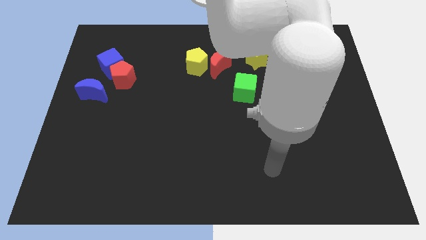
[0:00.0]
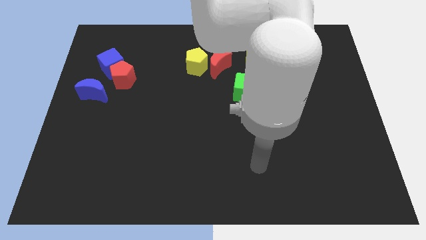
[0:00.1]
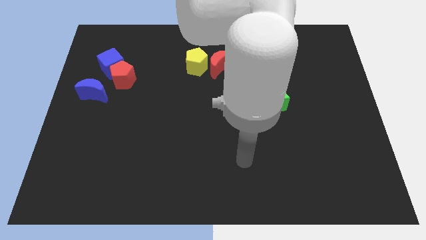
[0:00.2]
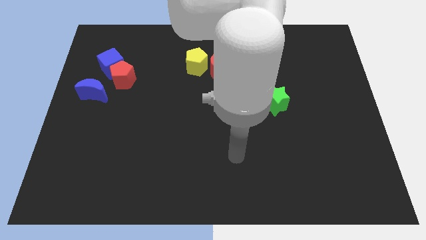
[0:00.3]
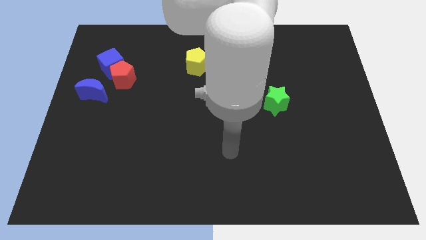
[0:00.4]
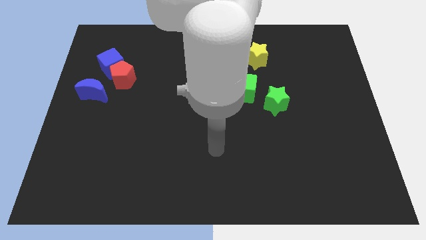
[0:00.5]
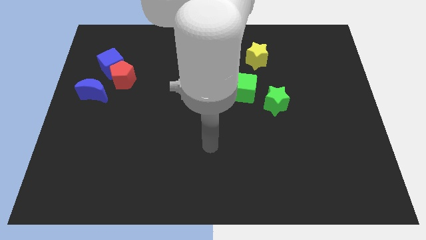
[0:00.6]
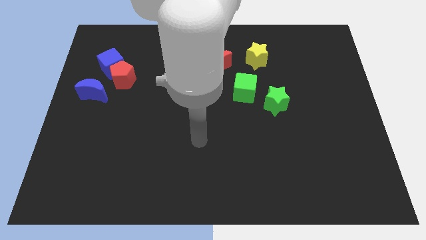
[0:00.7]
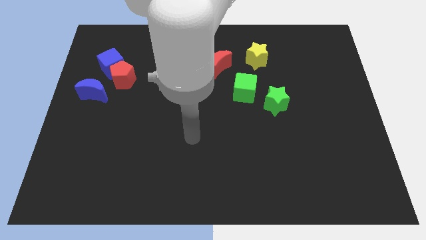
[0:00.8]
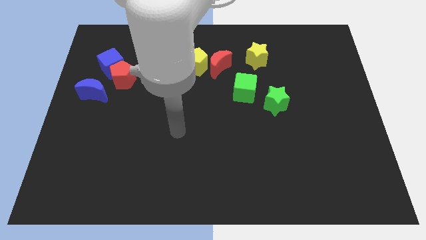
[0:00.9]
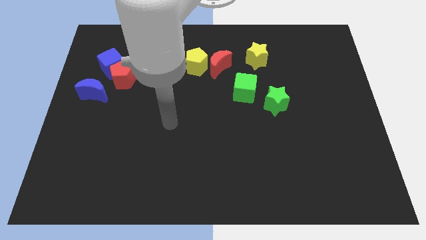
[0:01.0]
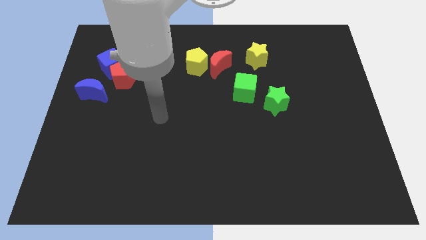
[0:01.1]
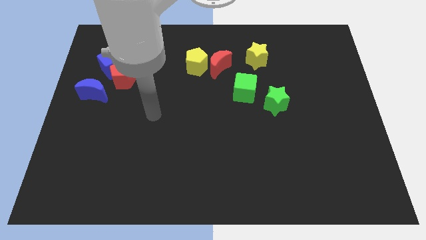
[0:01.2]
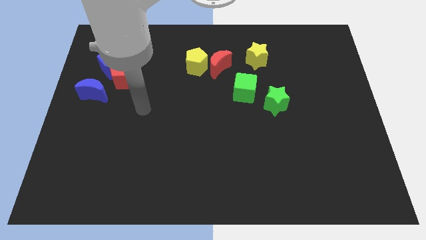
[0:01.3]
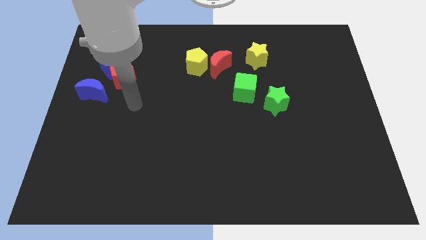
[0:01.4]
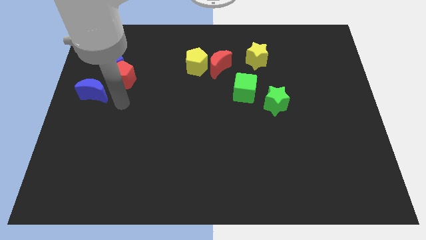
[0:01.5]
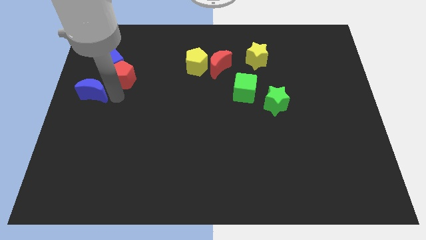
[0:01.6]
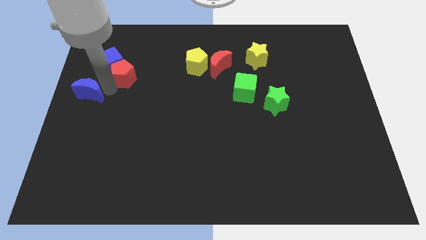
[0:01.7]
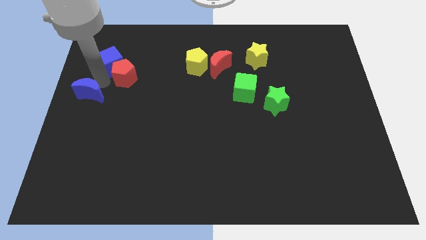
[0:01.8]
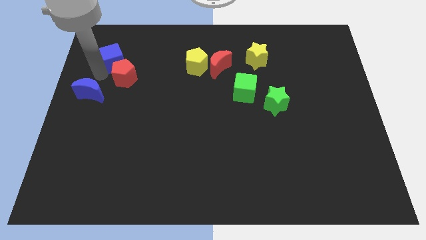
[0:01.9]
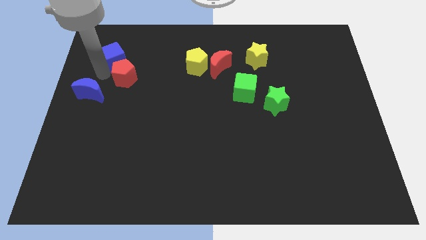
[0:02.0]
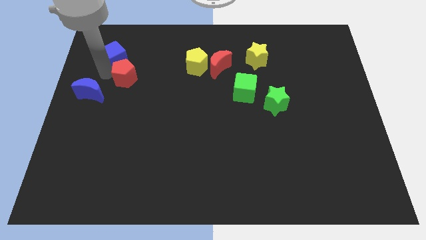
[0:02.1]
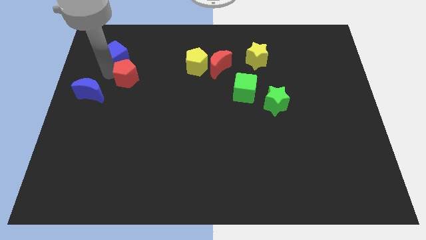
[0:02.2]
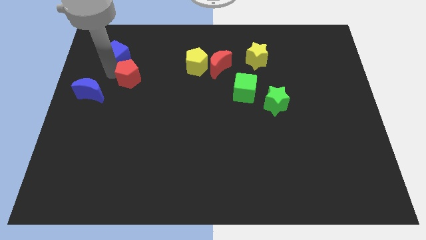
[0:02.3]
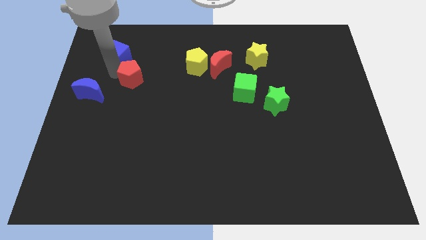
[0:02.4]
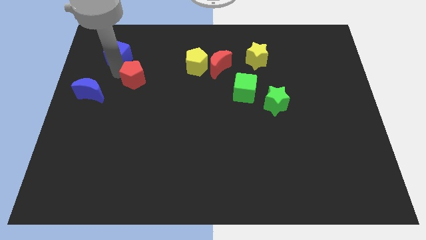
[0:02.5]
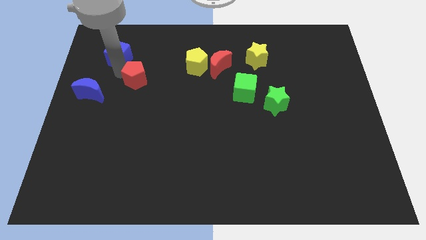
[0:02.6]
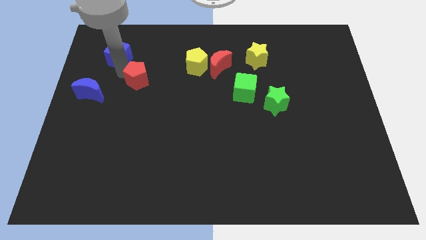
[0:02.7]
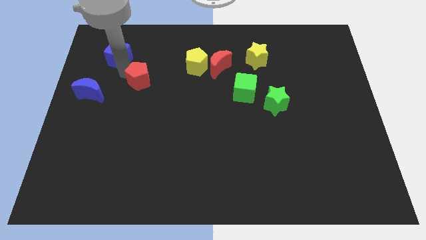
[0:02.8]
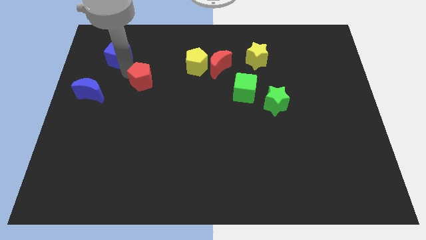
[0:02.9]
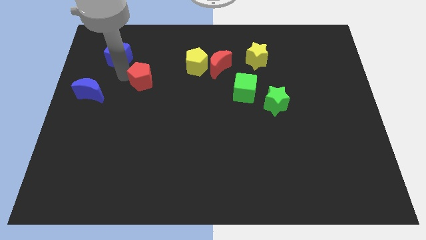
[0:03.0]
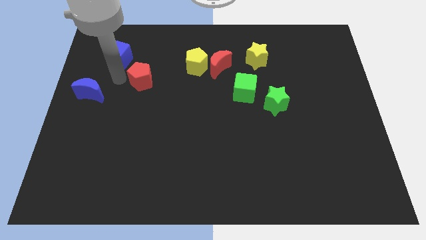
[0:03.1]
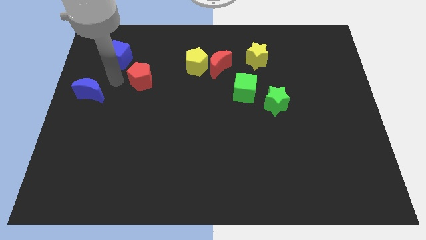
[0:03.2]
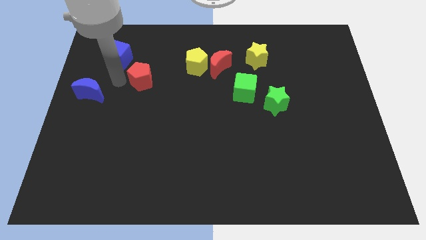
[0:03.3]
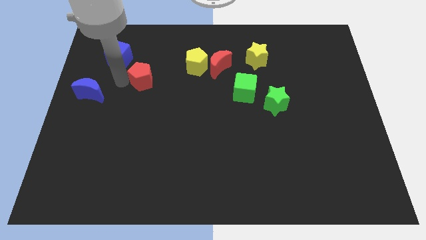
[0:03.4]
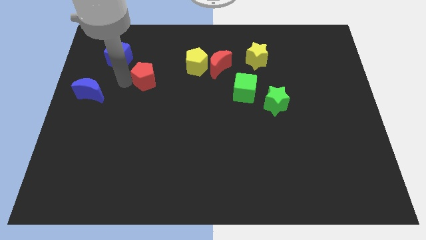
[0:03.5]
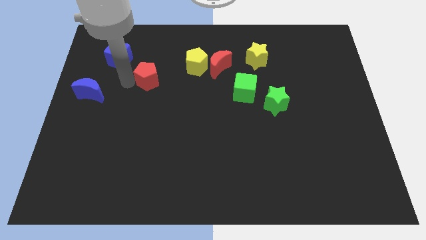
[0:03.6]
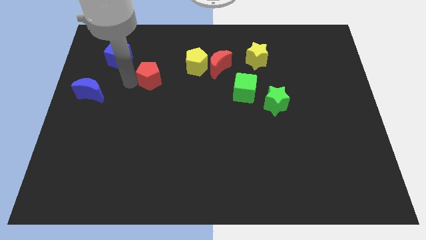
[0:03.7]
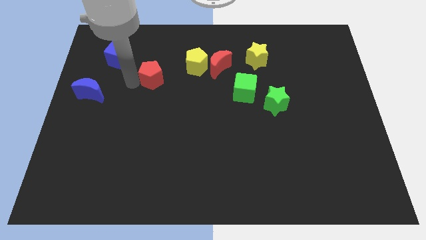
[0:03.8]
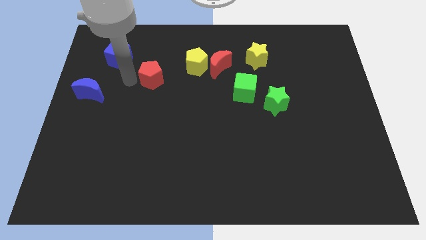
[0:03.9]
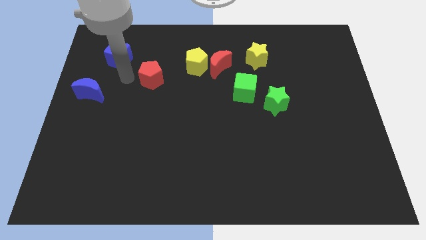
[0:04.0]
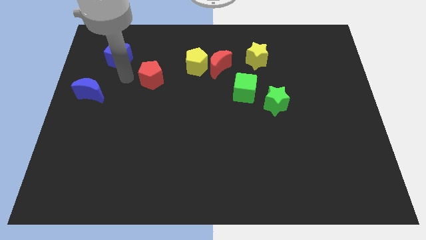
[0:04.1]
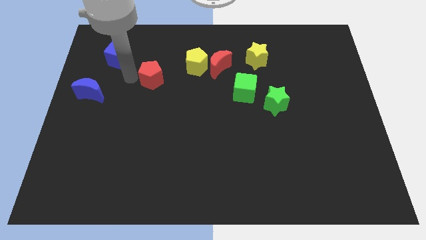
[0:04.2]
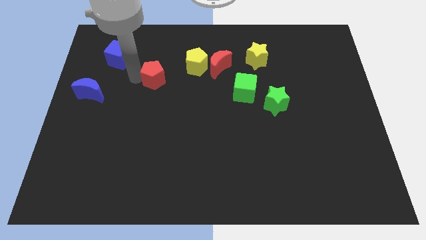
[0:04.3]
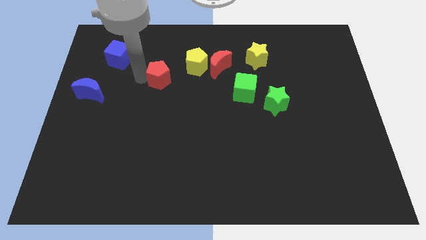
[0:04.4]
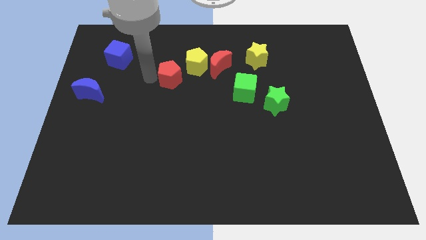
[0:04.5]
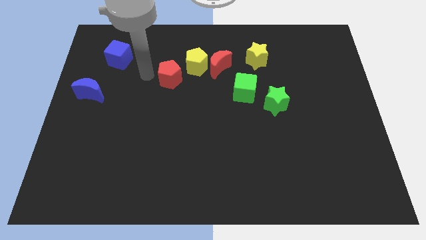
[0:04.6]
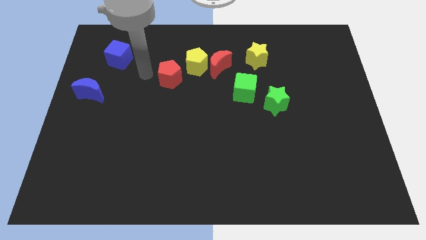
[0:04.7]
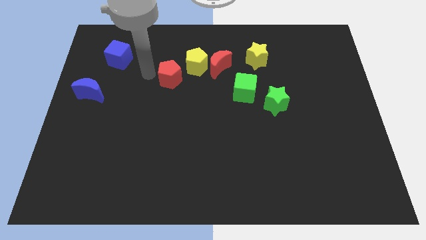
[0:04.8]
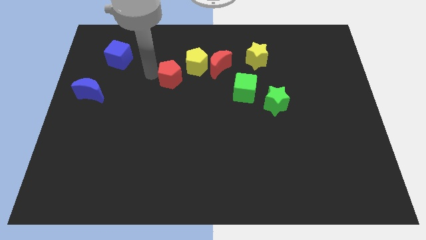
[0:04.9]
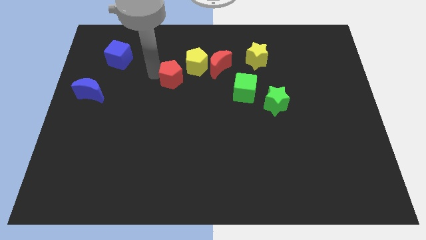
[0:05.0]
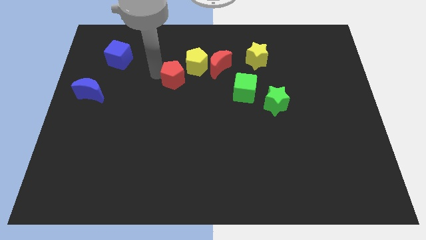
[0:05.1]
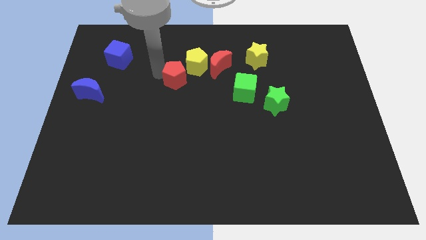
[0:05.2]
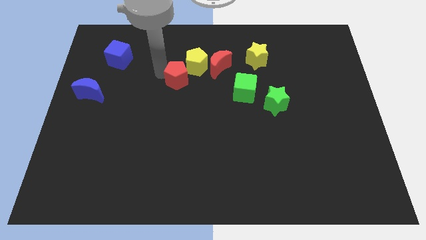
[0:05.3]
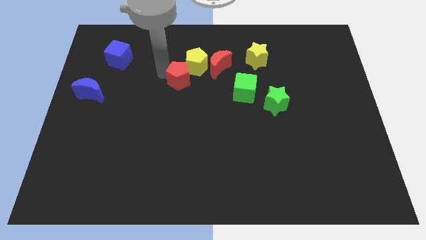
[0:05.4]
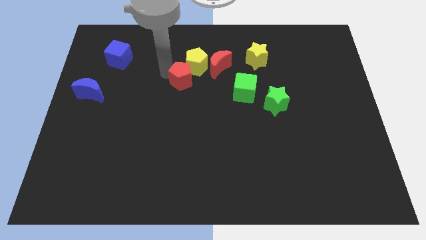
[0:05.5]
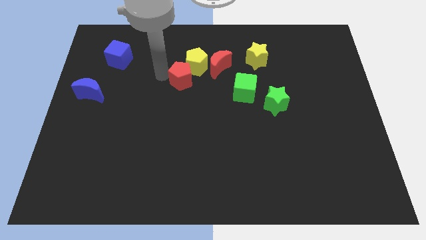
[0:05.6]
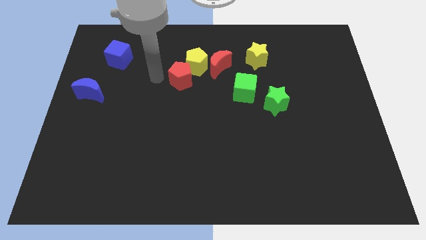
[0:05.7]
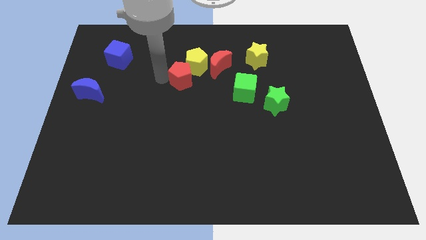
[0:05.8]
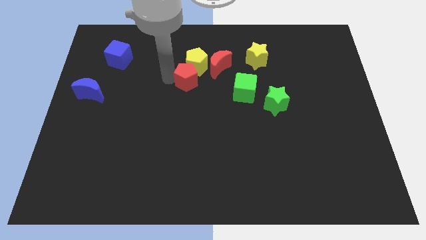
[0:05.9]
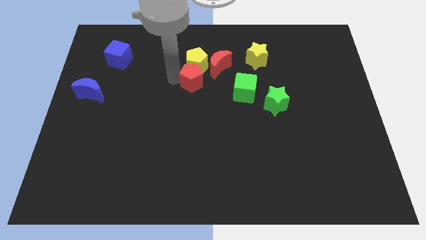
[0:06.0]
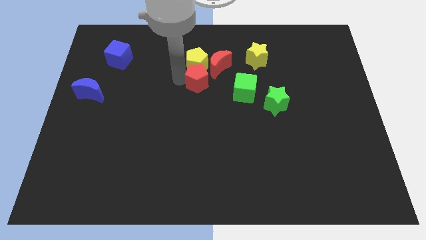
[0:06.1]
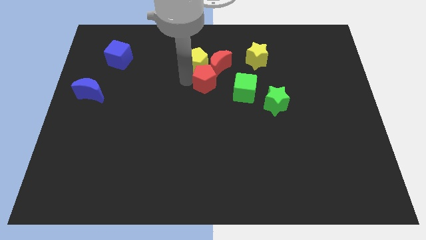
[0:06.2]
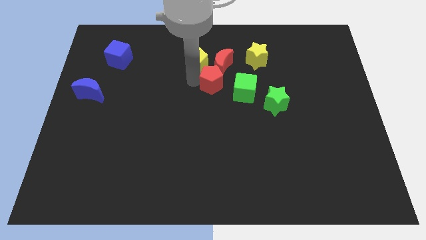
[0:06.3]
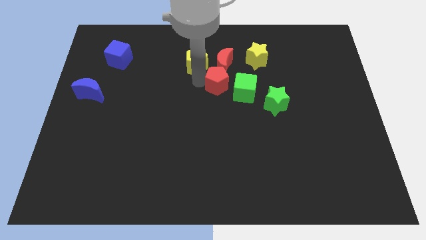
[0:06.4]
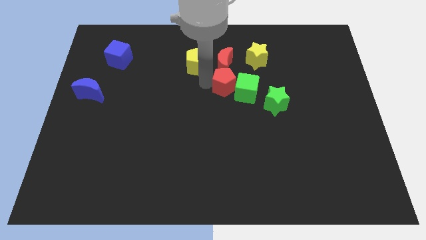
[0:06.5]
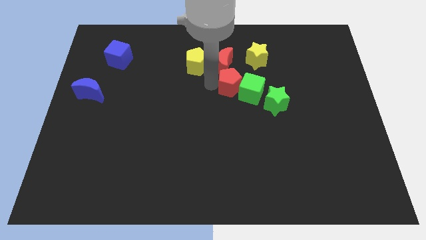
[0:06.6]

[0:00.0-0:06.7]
slide the red pentagon to the top left side of the green star

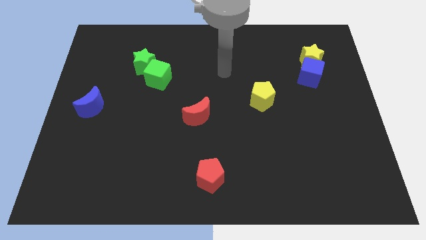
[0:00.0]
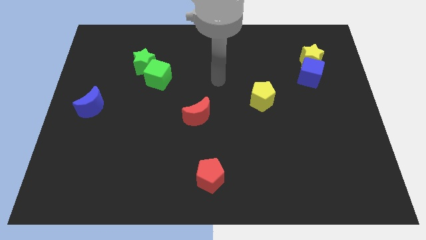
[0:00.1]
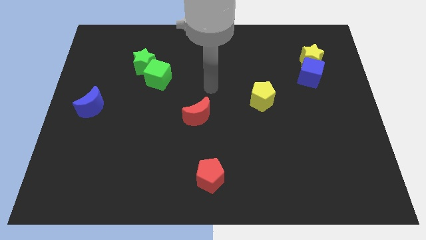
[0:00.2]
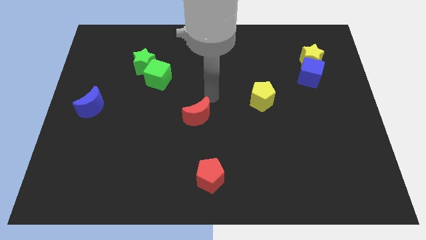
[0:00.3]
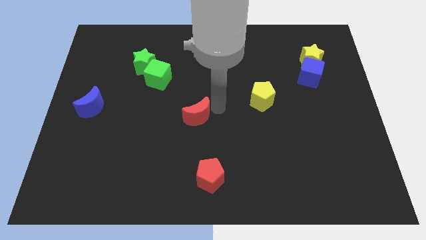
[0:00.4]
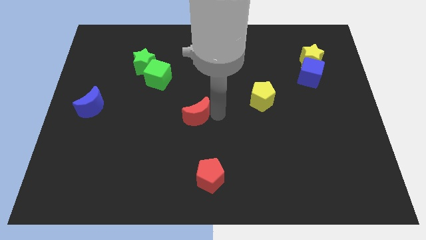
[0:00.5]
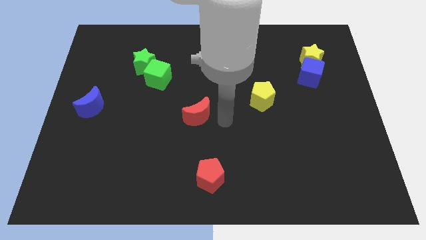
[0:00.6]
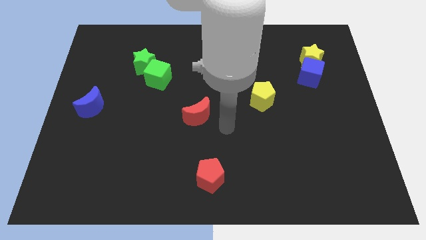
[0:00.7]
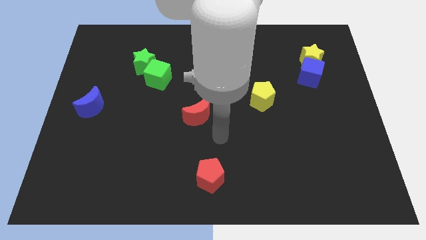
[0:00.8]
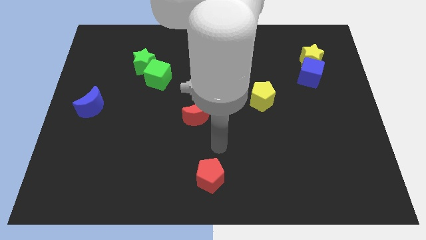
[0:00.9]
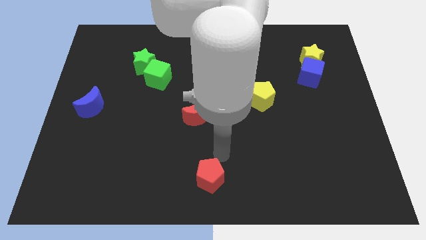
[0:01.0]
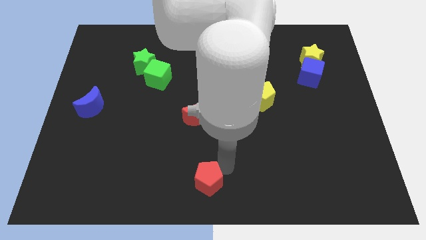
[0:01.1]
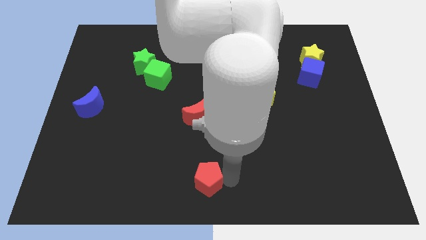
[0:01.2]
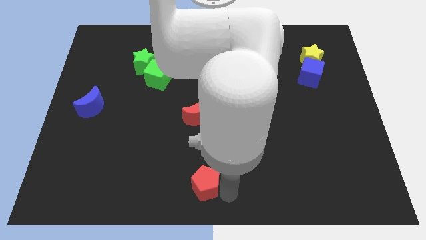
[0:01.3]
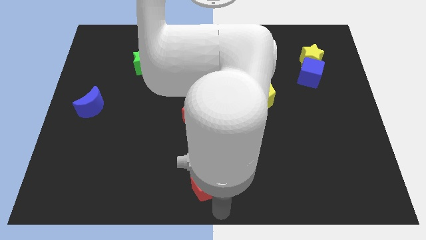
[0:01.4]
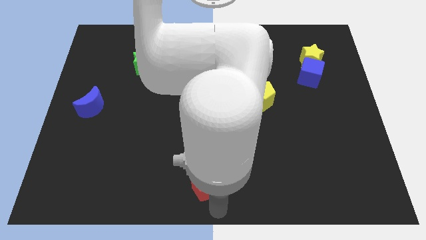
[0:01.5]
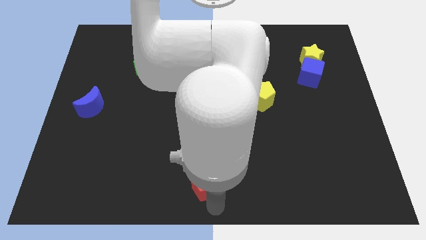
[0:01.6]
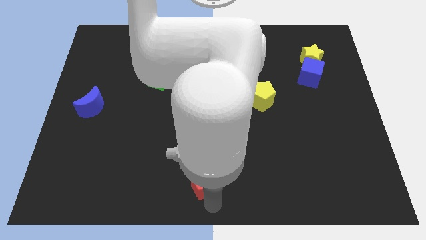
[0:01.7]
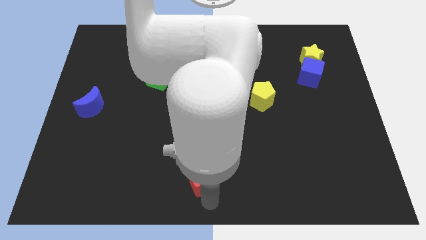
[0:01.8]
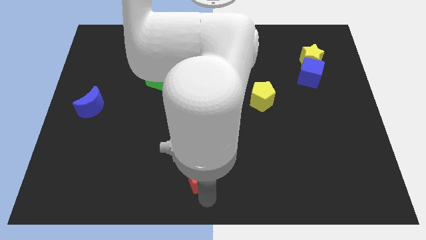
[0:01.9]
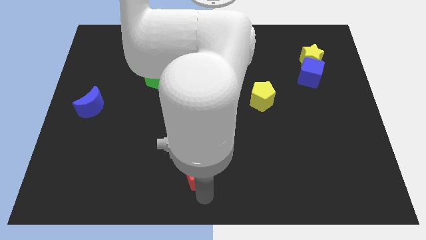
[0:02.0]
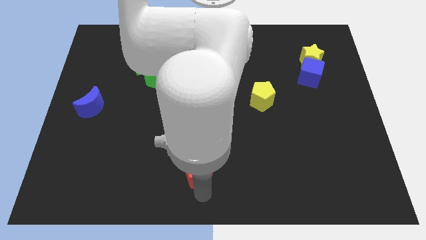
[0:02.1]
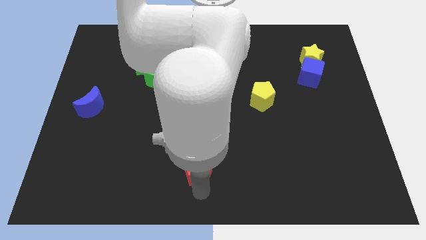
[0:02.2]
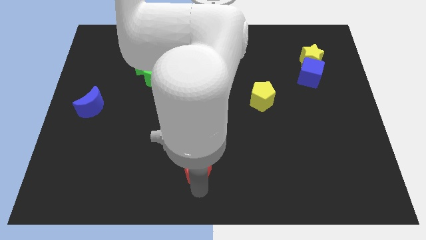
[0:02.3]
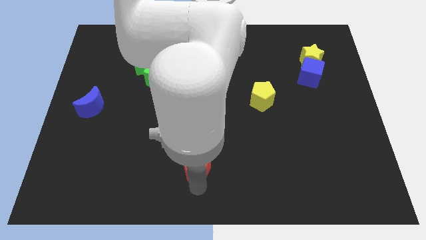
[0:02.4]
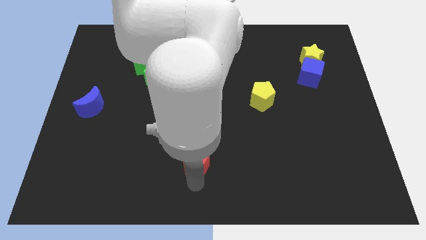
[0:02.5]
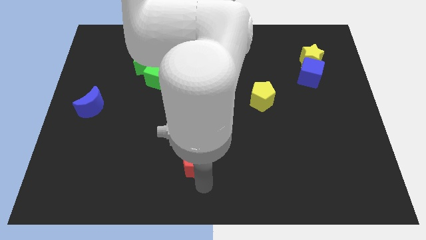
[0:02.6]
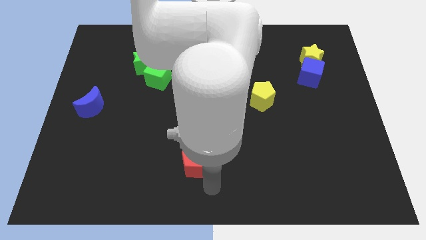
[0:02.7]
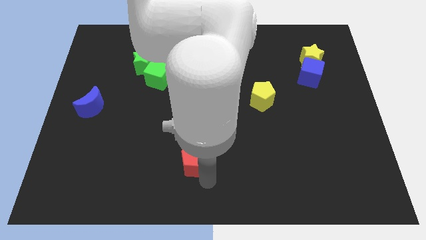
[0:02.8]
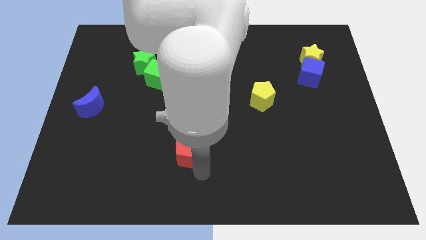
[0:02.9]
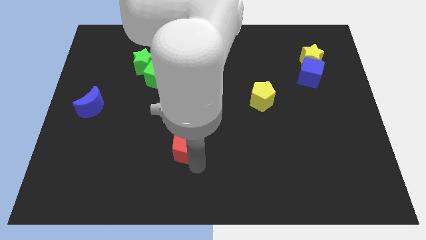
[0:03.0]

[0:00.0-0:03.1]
move the red pentagon to the bottom left of the red moon
